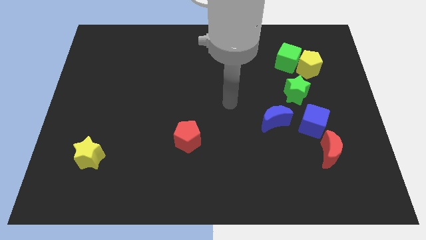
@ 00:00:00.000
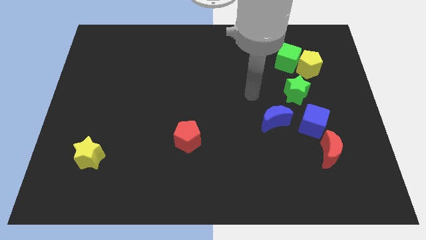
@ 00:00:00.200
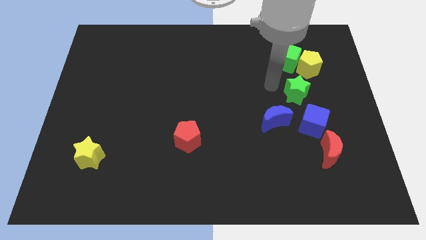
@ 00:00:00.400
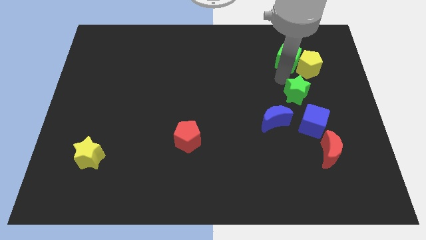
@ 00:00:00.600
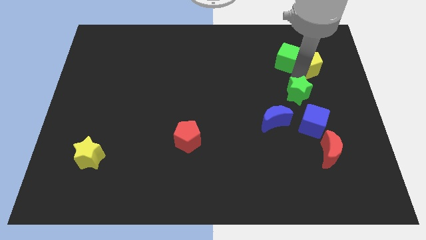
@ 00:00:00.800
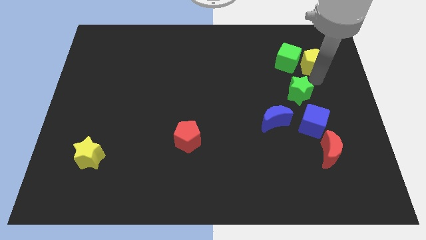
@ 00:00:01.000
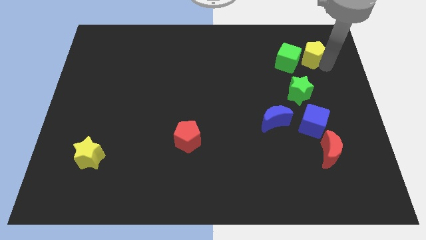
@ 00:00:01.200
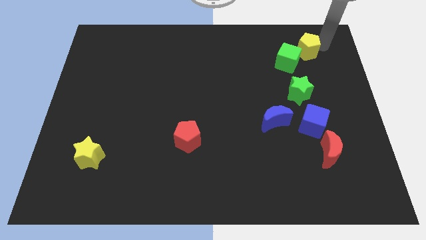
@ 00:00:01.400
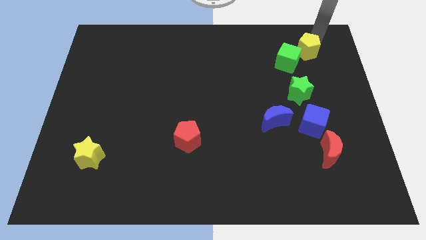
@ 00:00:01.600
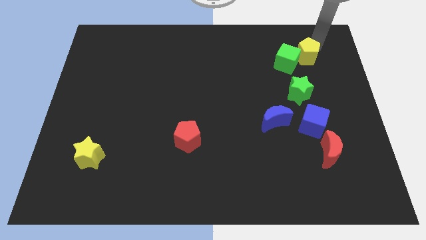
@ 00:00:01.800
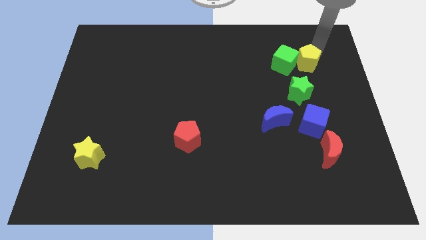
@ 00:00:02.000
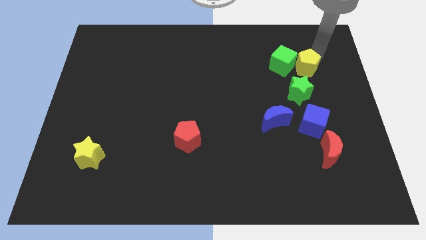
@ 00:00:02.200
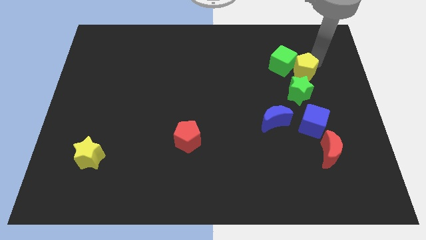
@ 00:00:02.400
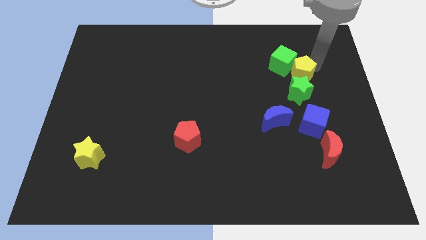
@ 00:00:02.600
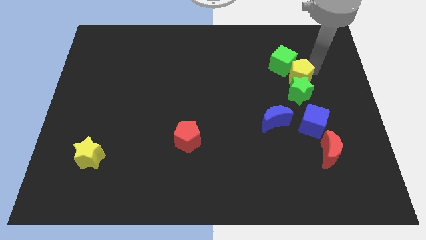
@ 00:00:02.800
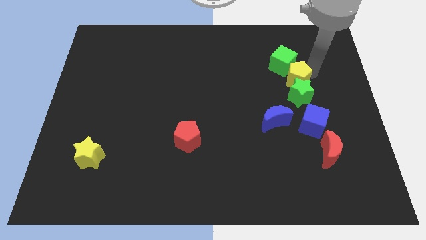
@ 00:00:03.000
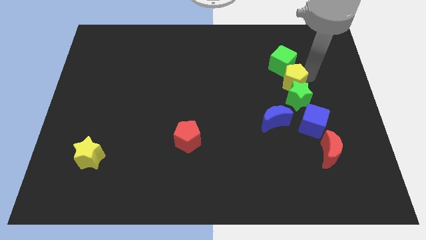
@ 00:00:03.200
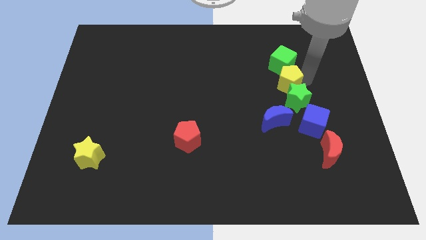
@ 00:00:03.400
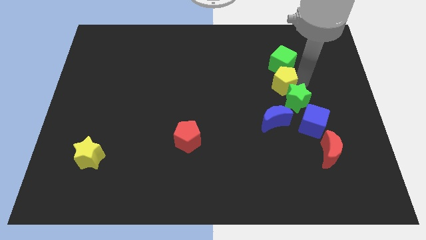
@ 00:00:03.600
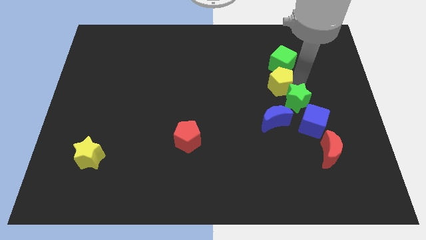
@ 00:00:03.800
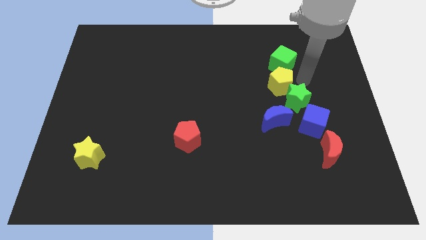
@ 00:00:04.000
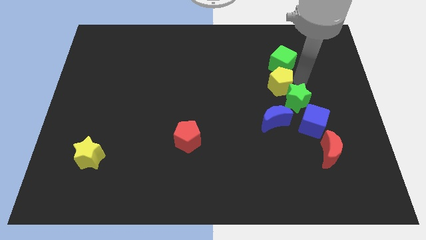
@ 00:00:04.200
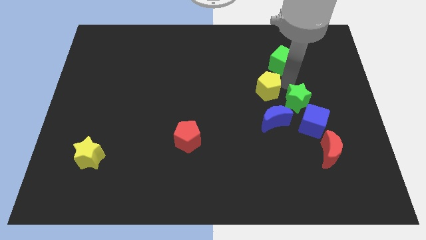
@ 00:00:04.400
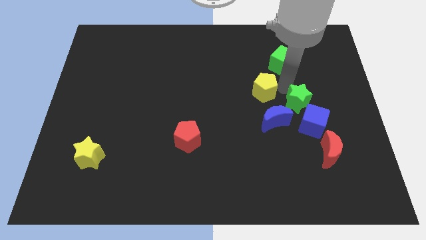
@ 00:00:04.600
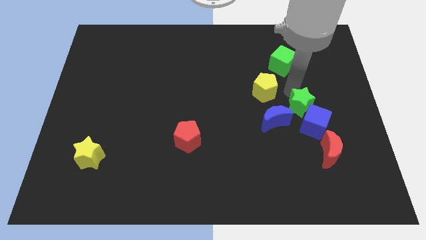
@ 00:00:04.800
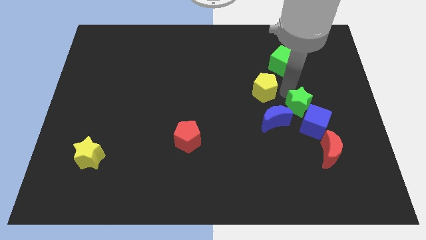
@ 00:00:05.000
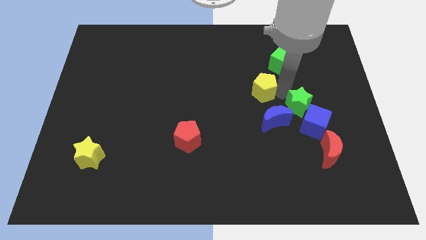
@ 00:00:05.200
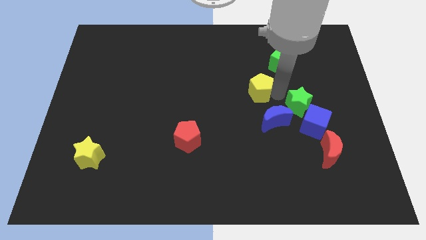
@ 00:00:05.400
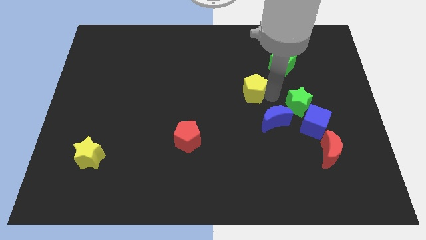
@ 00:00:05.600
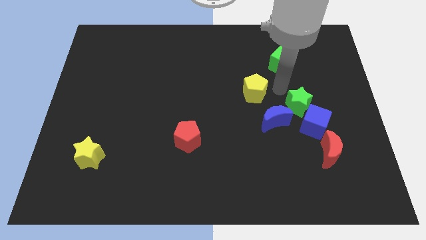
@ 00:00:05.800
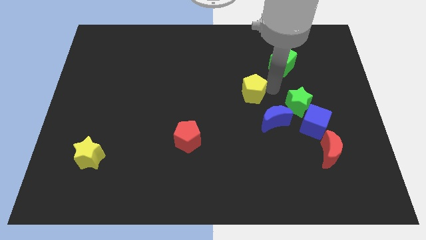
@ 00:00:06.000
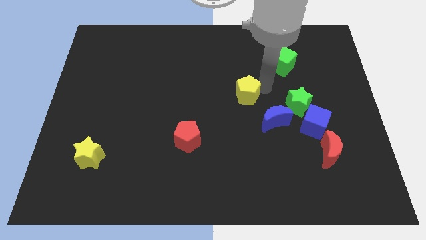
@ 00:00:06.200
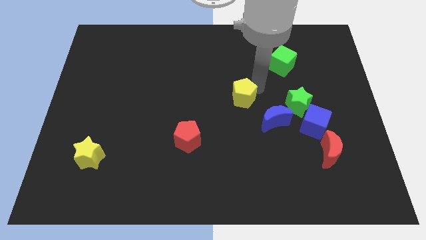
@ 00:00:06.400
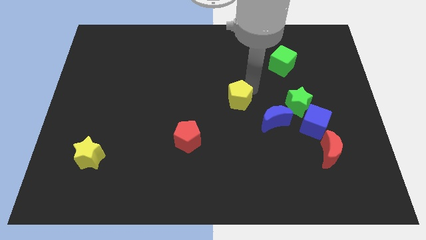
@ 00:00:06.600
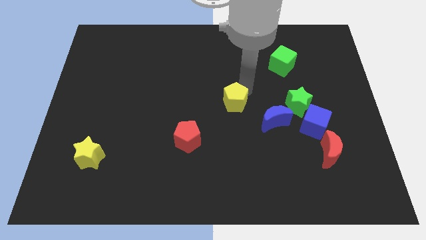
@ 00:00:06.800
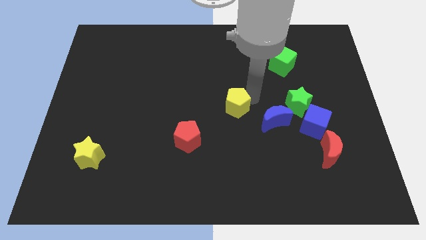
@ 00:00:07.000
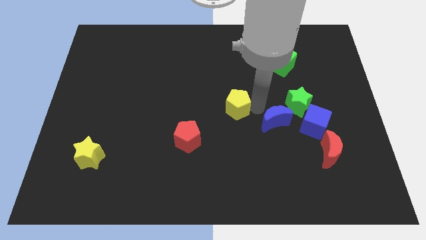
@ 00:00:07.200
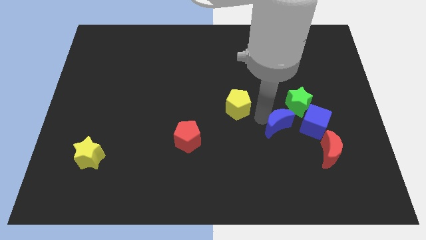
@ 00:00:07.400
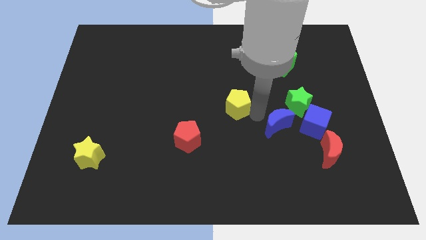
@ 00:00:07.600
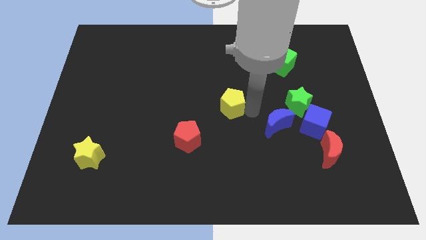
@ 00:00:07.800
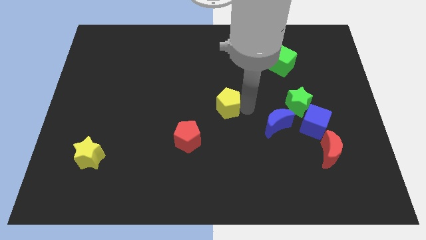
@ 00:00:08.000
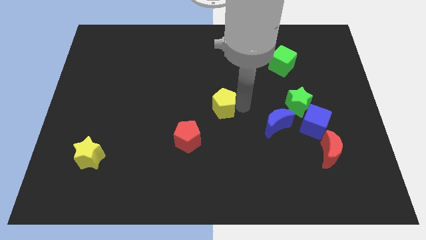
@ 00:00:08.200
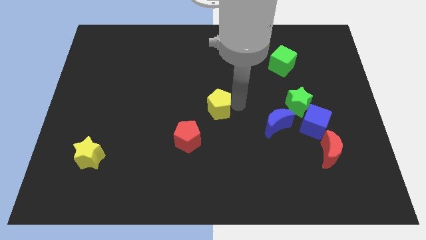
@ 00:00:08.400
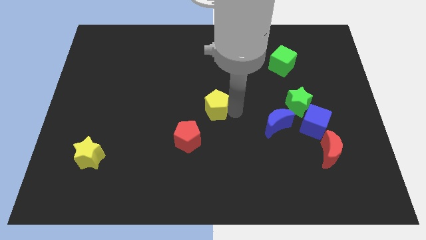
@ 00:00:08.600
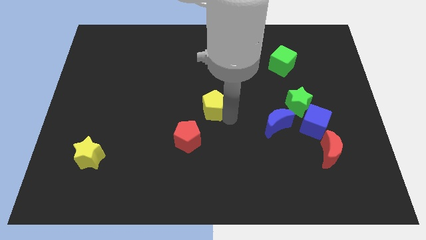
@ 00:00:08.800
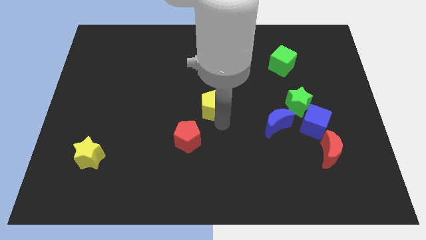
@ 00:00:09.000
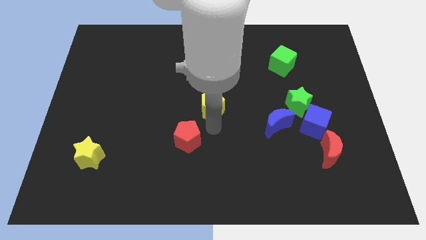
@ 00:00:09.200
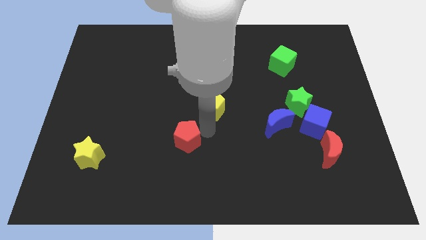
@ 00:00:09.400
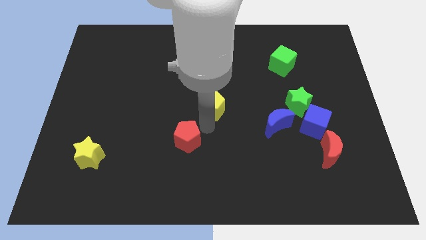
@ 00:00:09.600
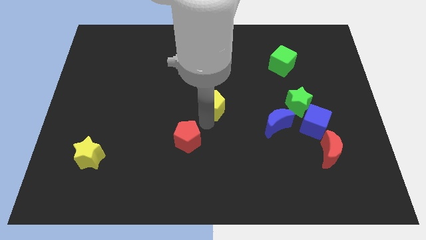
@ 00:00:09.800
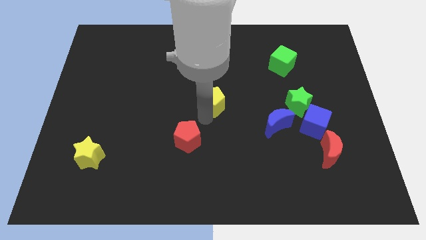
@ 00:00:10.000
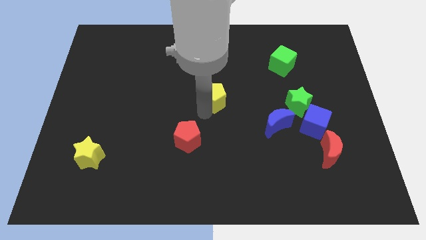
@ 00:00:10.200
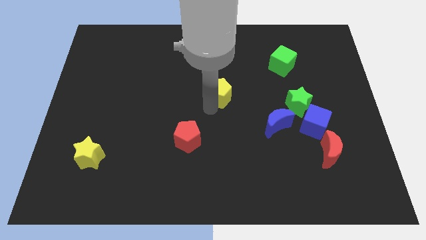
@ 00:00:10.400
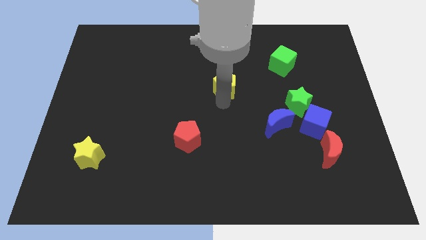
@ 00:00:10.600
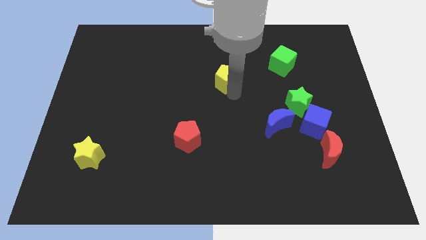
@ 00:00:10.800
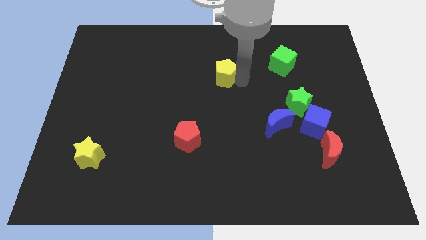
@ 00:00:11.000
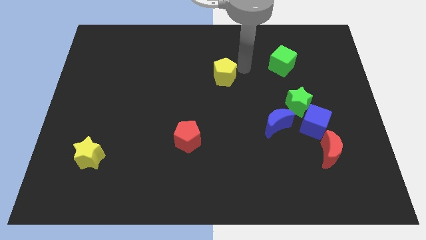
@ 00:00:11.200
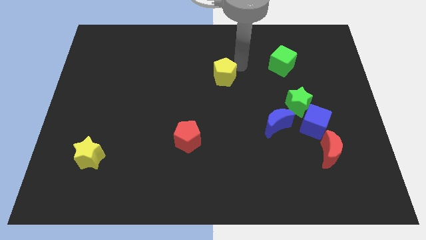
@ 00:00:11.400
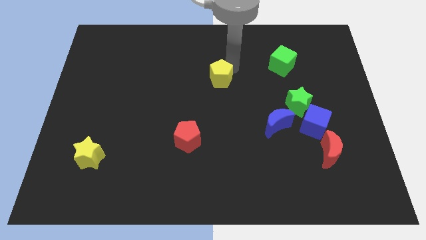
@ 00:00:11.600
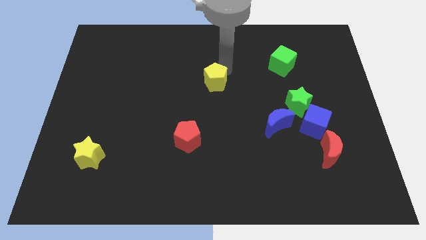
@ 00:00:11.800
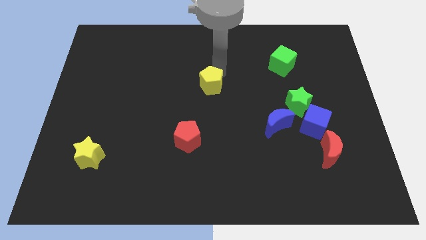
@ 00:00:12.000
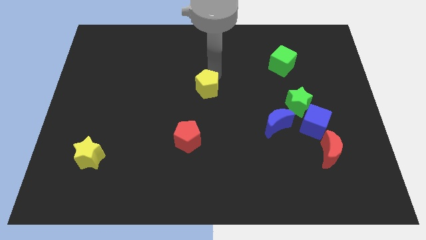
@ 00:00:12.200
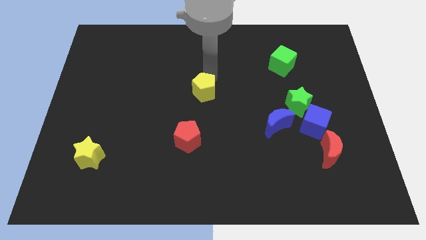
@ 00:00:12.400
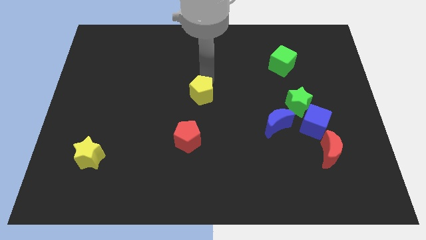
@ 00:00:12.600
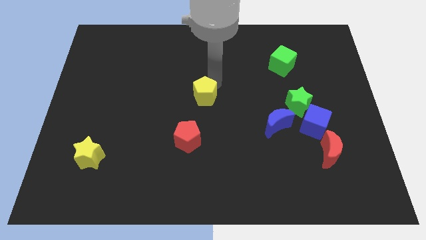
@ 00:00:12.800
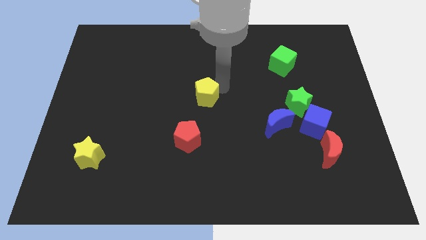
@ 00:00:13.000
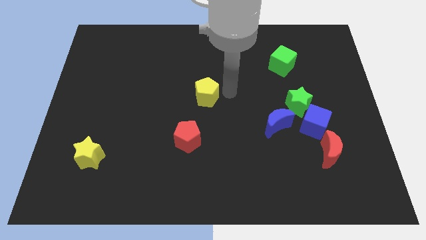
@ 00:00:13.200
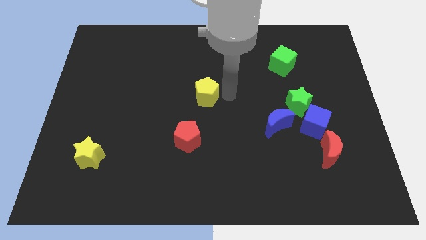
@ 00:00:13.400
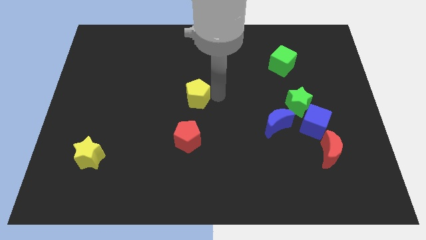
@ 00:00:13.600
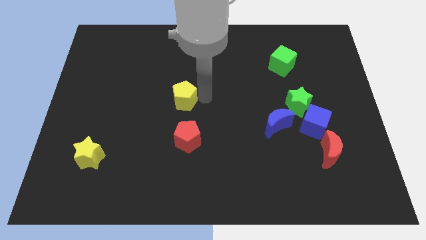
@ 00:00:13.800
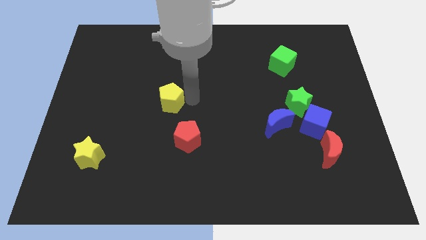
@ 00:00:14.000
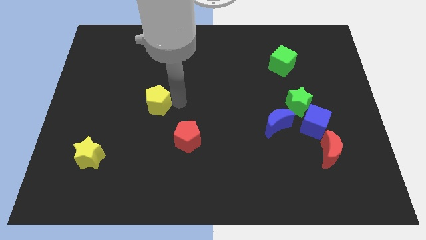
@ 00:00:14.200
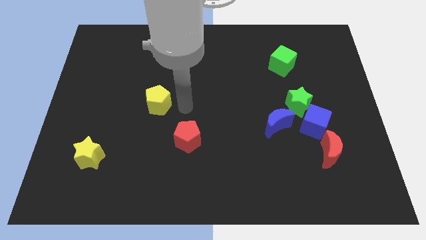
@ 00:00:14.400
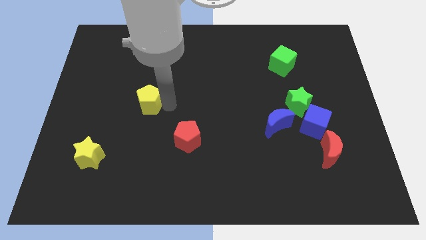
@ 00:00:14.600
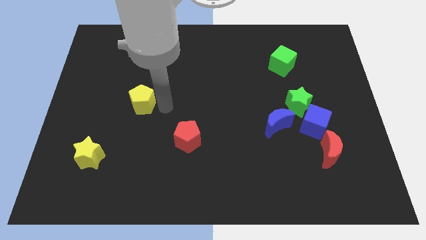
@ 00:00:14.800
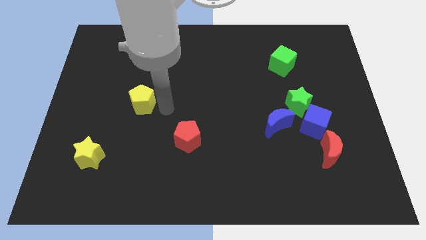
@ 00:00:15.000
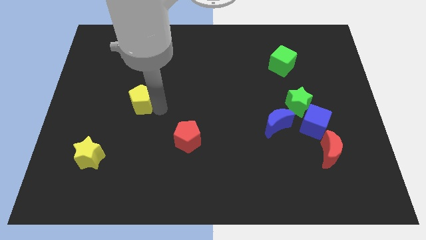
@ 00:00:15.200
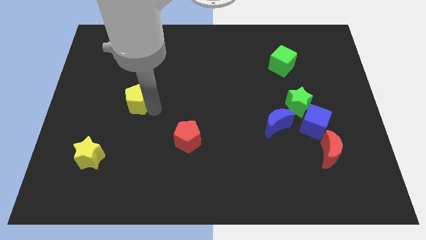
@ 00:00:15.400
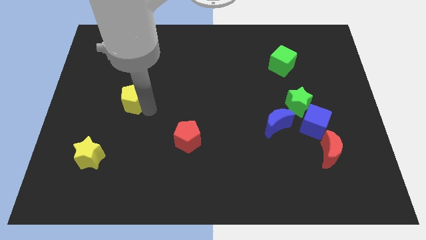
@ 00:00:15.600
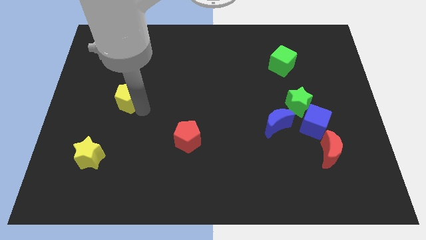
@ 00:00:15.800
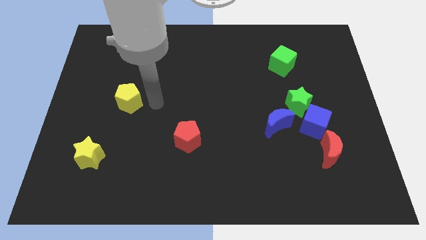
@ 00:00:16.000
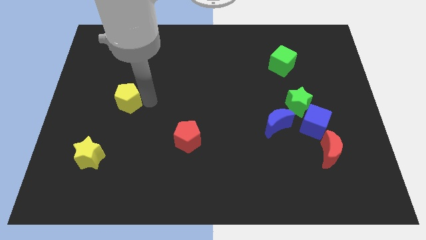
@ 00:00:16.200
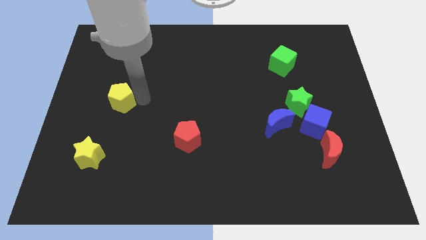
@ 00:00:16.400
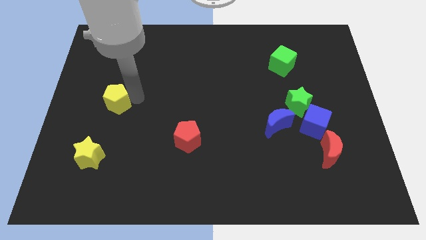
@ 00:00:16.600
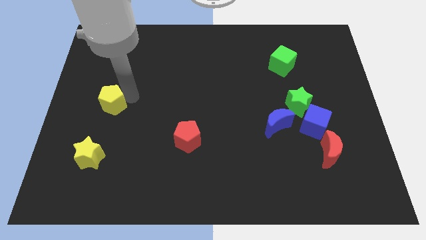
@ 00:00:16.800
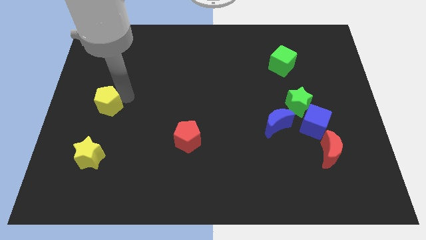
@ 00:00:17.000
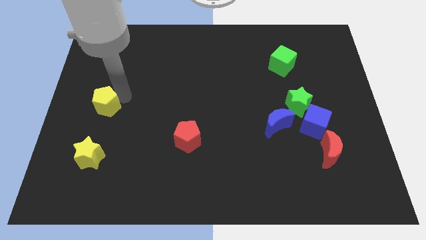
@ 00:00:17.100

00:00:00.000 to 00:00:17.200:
put the yellow pentagon to the left side
